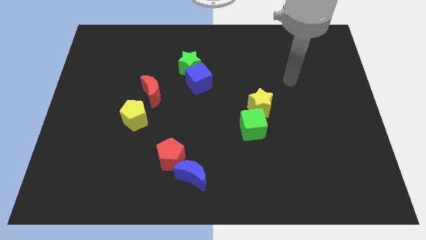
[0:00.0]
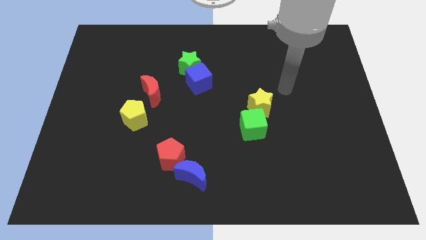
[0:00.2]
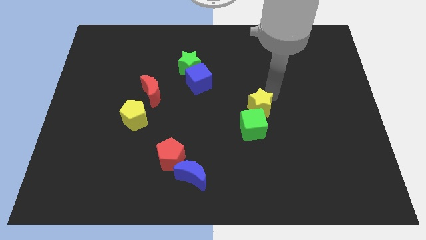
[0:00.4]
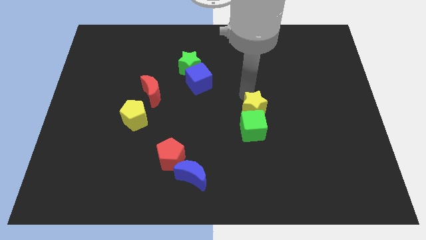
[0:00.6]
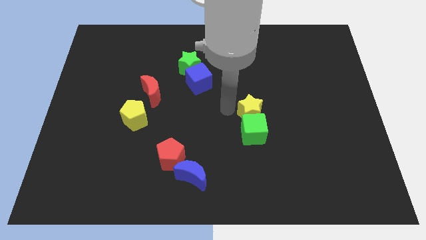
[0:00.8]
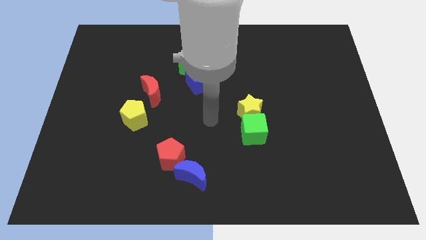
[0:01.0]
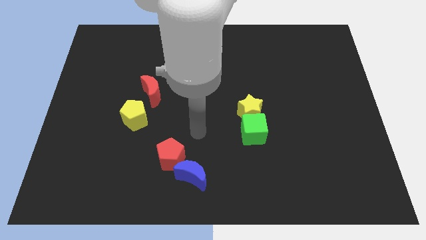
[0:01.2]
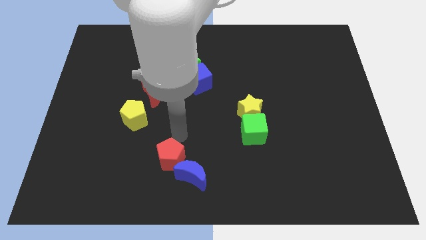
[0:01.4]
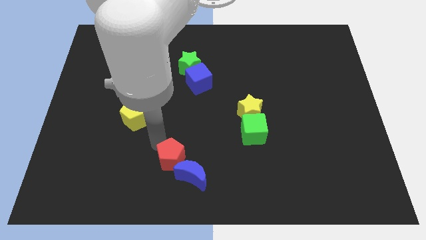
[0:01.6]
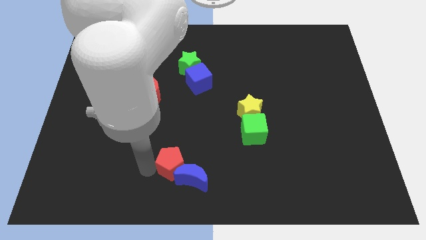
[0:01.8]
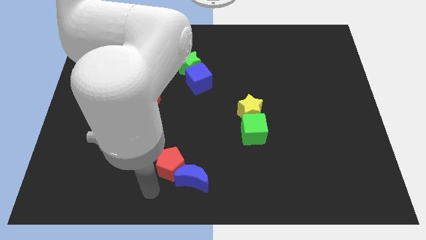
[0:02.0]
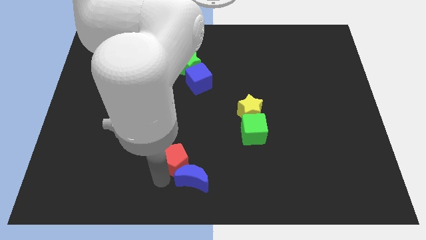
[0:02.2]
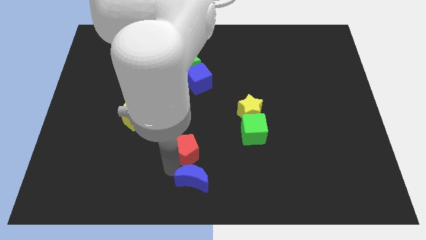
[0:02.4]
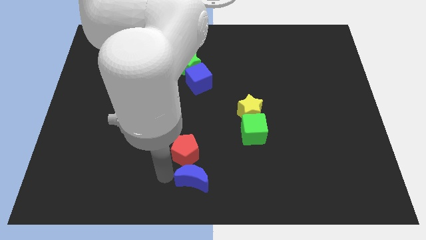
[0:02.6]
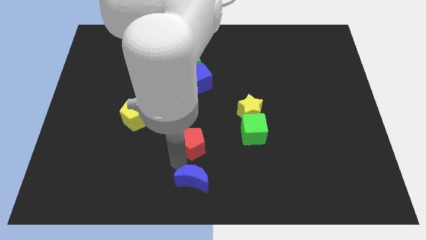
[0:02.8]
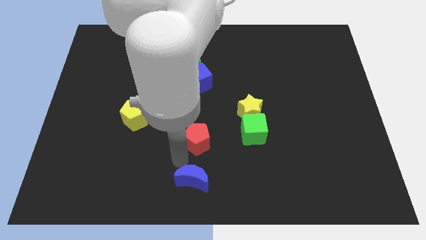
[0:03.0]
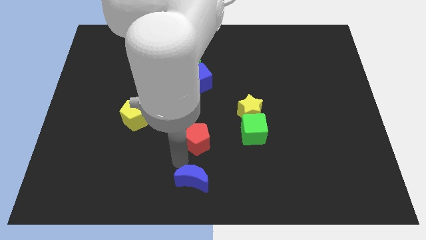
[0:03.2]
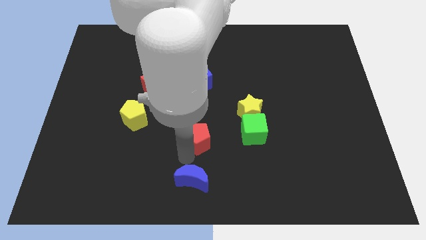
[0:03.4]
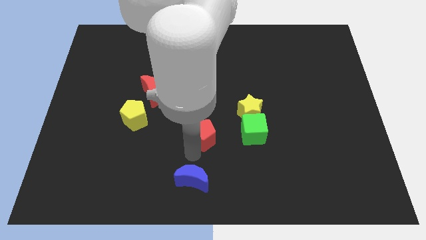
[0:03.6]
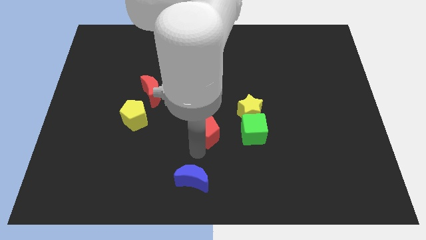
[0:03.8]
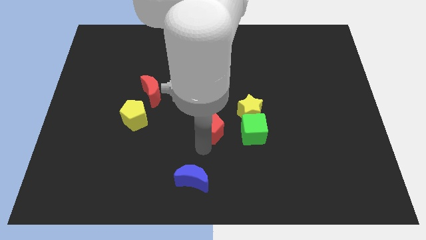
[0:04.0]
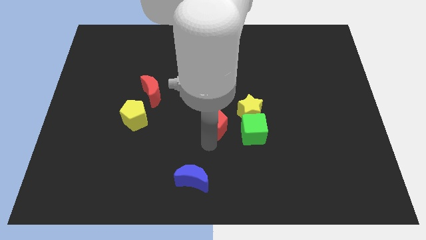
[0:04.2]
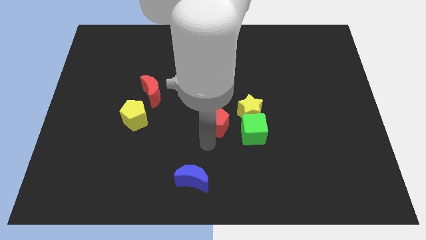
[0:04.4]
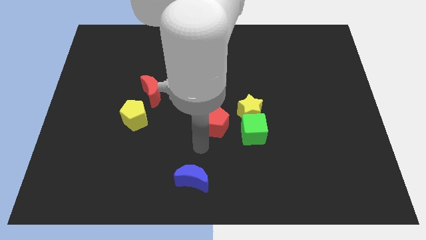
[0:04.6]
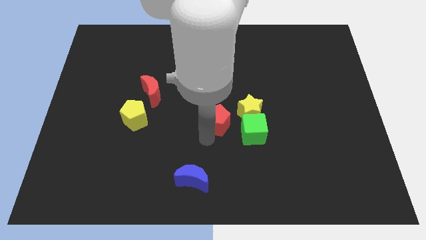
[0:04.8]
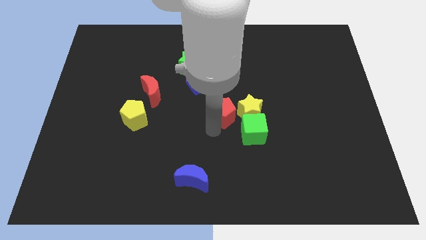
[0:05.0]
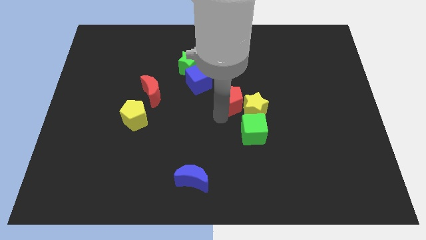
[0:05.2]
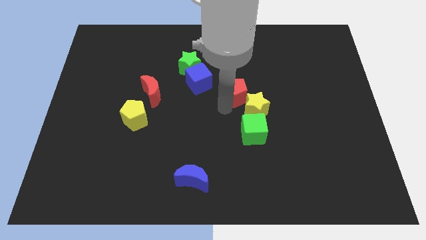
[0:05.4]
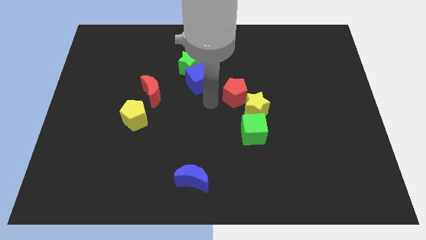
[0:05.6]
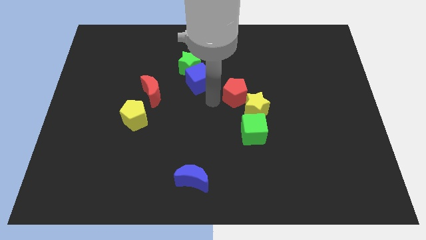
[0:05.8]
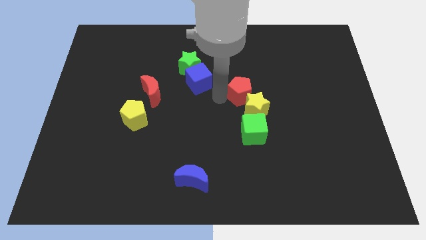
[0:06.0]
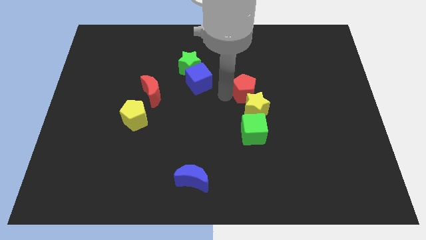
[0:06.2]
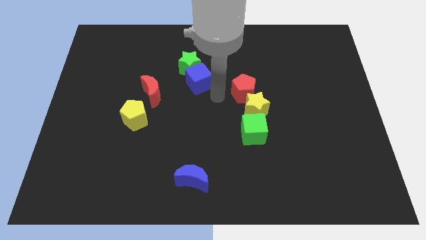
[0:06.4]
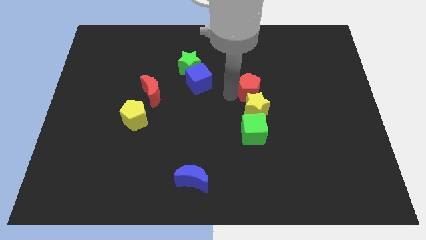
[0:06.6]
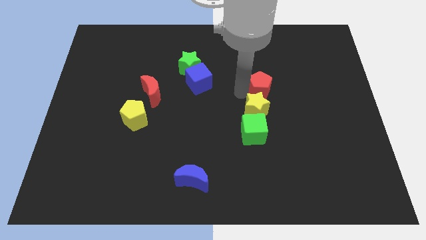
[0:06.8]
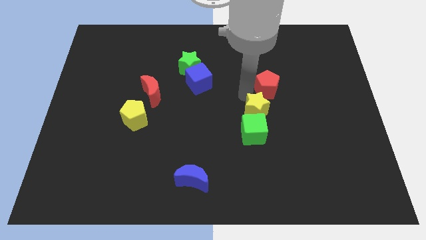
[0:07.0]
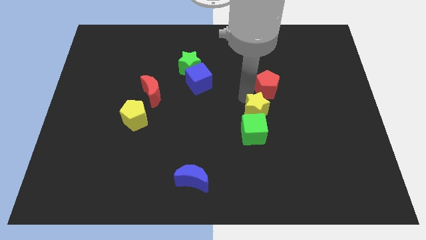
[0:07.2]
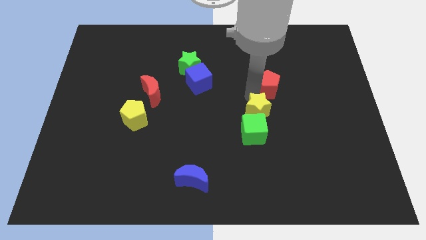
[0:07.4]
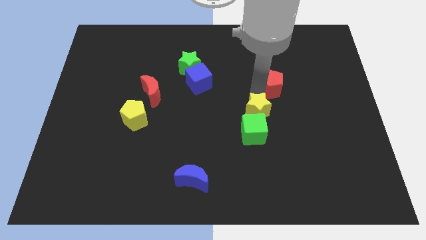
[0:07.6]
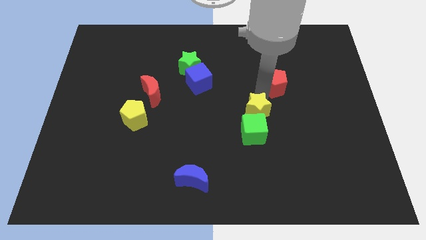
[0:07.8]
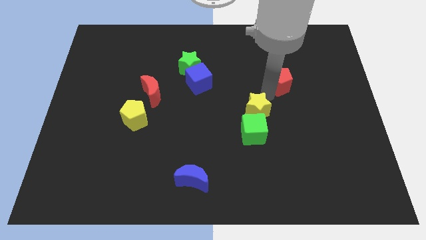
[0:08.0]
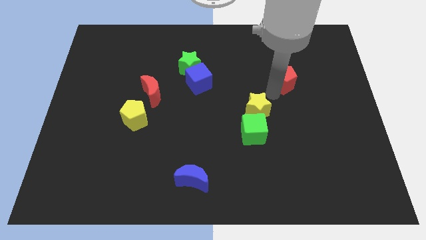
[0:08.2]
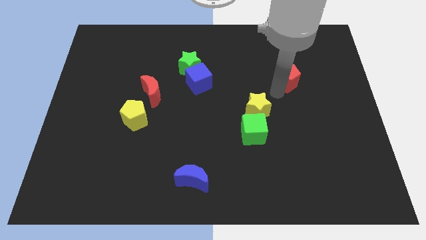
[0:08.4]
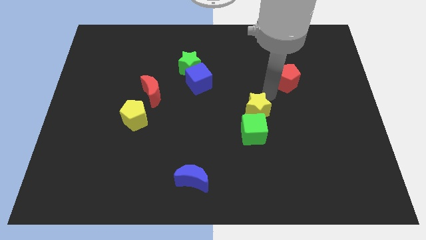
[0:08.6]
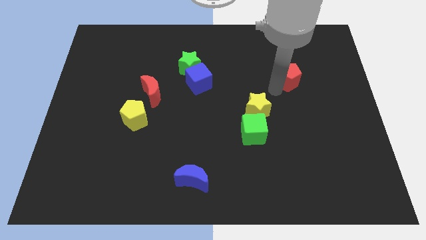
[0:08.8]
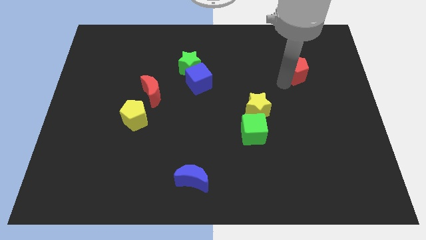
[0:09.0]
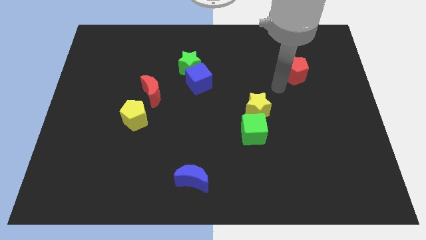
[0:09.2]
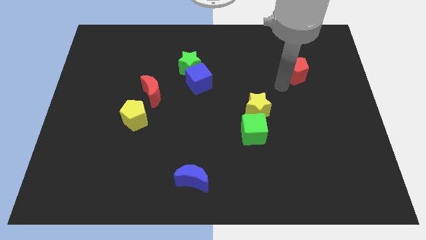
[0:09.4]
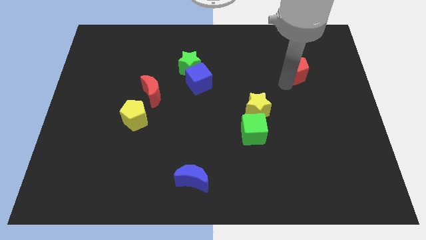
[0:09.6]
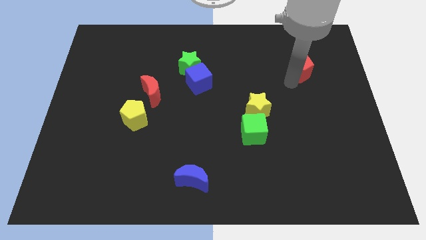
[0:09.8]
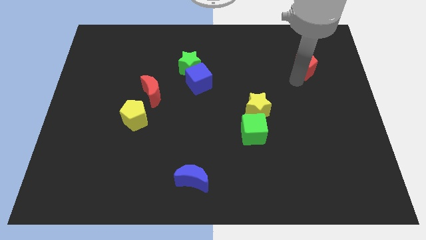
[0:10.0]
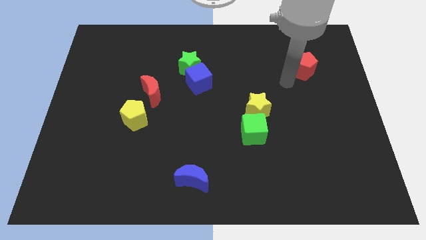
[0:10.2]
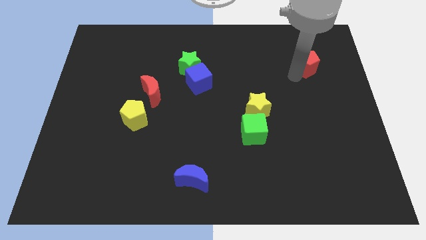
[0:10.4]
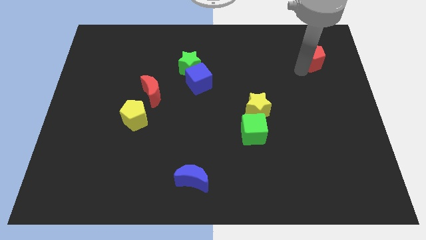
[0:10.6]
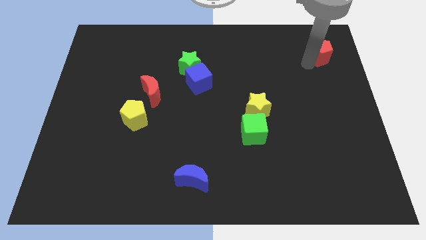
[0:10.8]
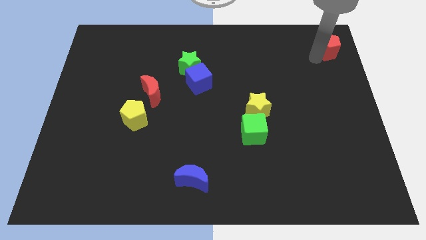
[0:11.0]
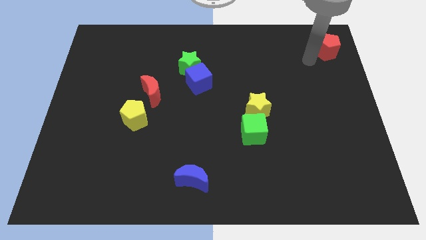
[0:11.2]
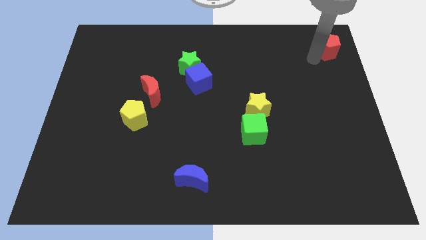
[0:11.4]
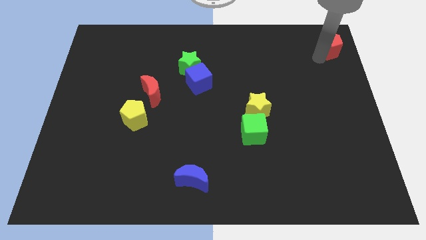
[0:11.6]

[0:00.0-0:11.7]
put the red pentagon to the top right corner

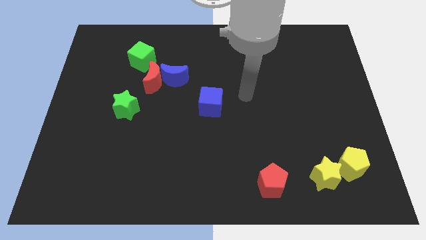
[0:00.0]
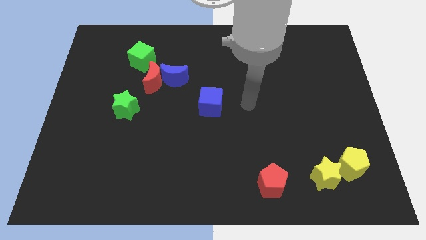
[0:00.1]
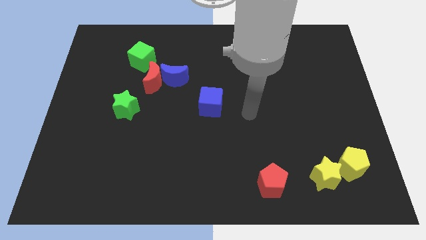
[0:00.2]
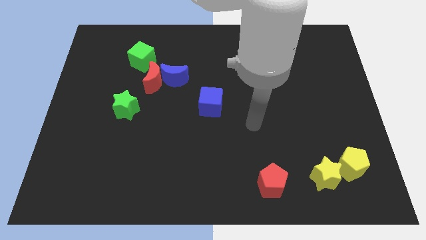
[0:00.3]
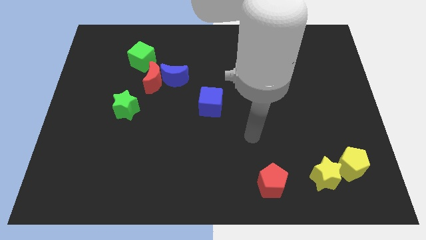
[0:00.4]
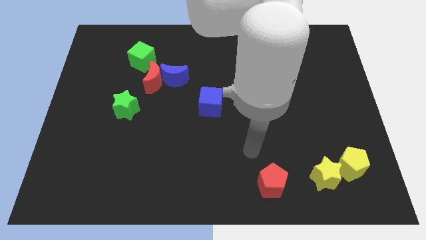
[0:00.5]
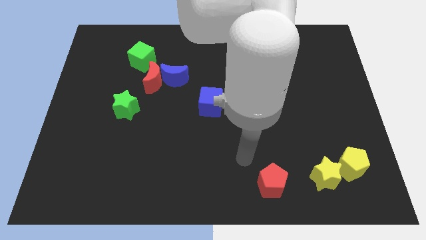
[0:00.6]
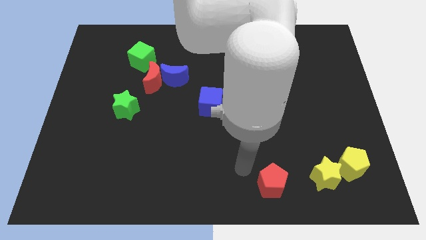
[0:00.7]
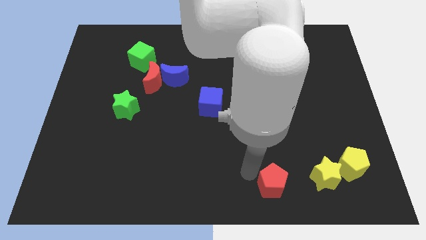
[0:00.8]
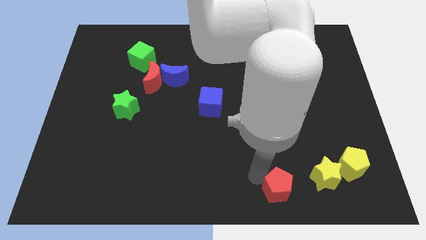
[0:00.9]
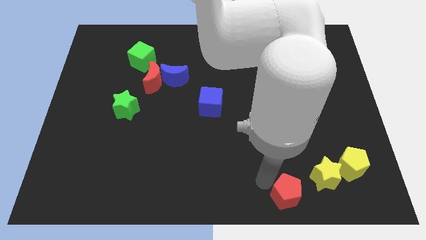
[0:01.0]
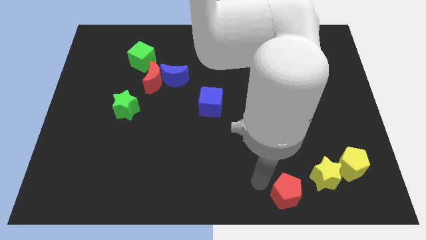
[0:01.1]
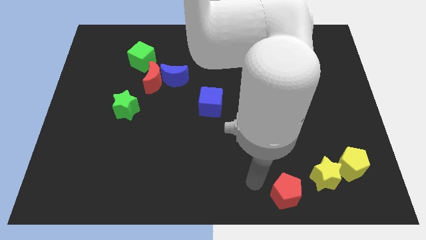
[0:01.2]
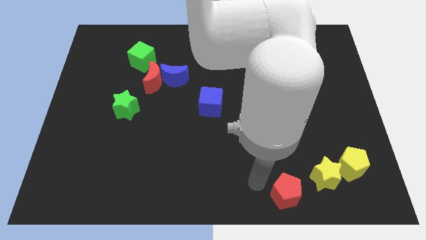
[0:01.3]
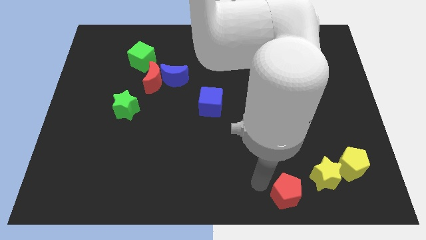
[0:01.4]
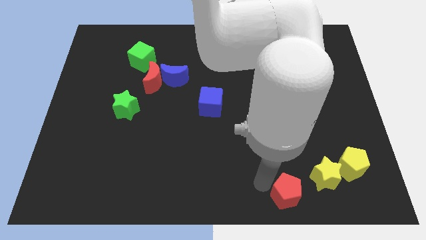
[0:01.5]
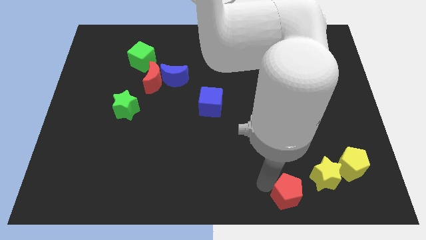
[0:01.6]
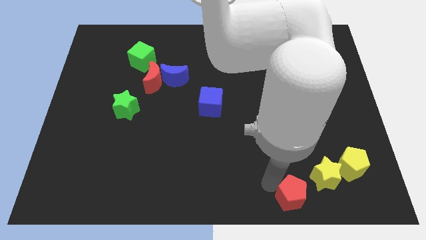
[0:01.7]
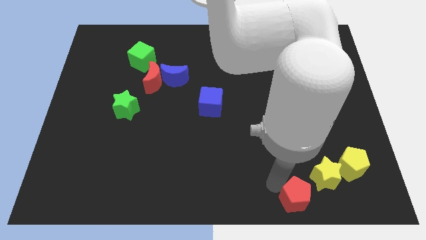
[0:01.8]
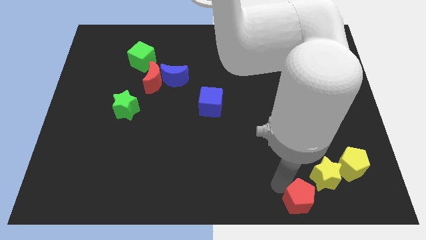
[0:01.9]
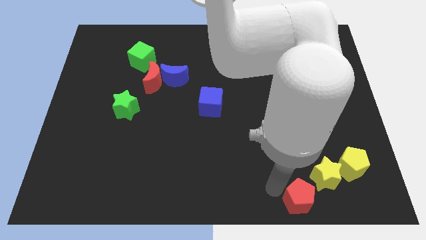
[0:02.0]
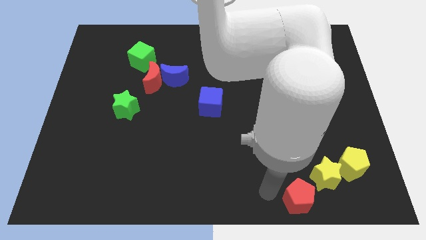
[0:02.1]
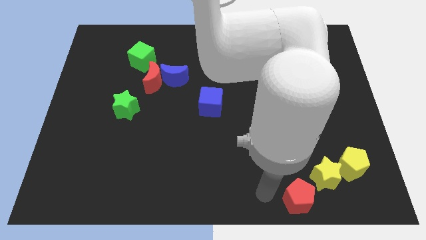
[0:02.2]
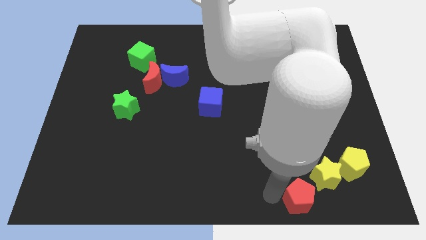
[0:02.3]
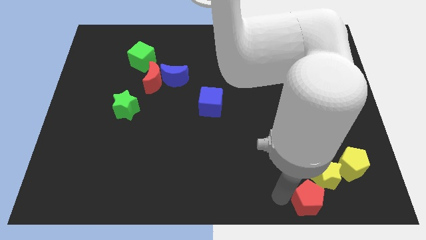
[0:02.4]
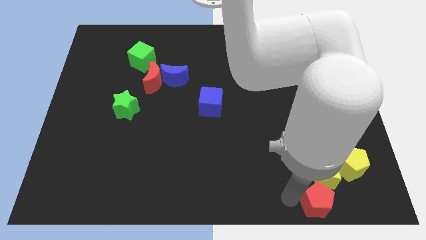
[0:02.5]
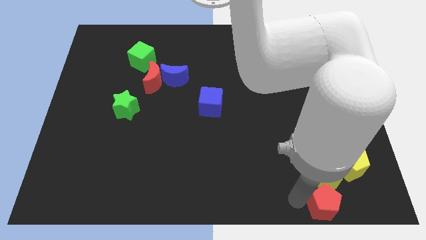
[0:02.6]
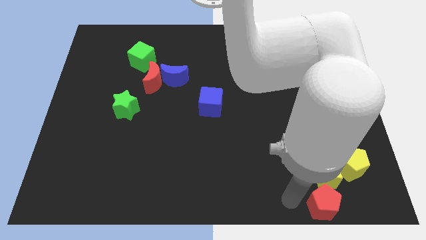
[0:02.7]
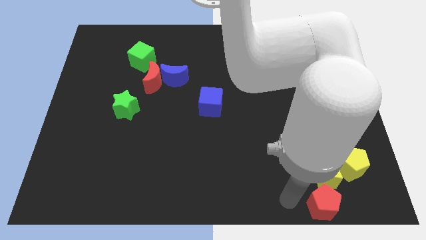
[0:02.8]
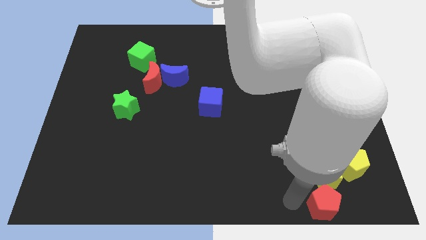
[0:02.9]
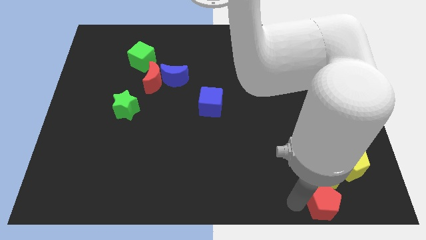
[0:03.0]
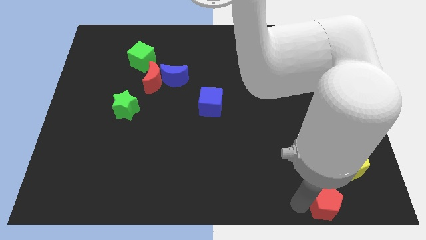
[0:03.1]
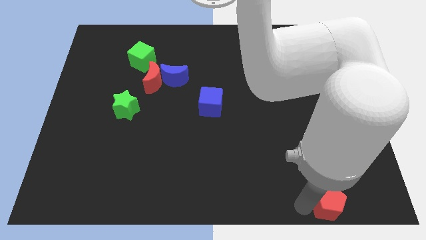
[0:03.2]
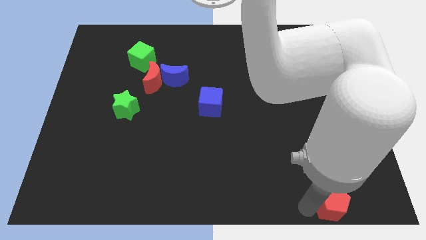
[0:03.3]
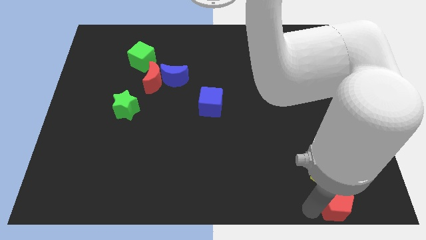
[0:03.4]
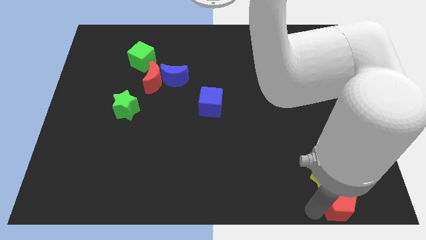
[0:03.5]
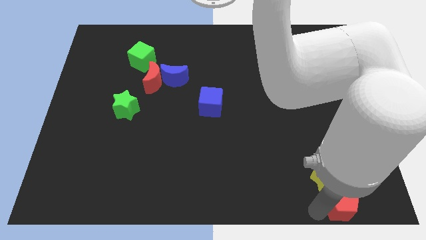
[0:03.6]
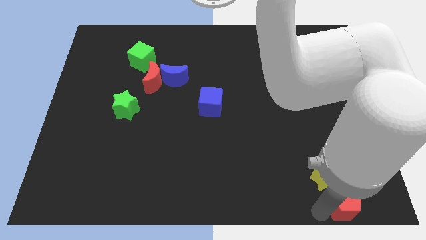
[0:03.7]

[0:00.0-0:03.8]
move the red pentagon to the bottom right
